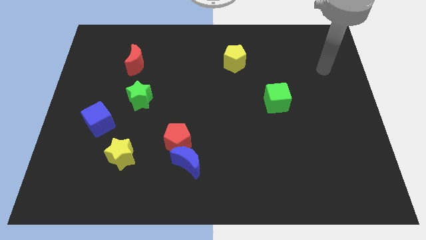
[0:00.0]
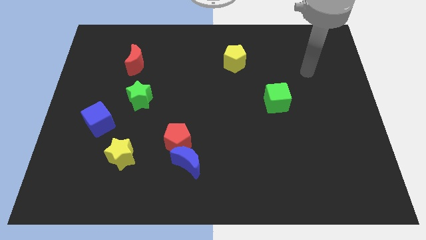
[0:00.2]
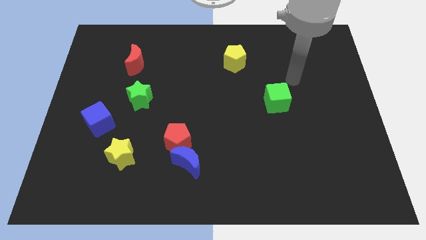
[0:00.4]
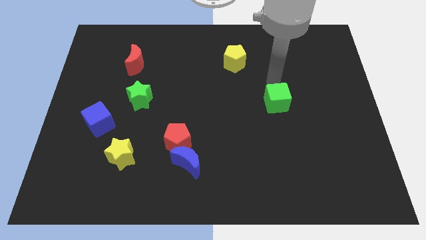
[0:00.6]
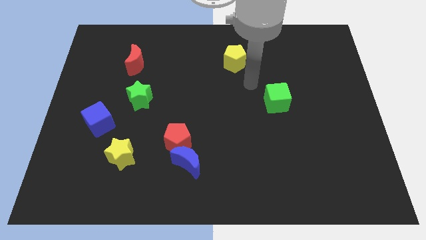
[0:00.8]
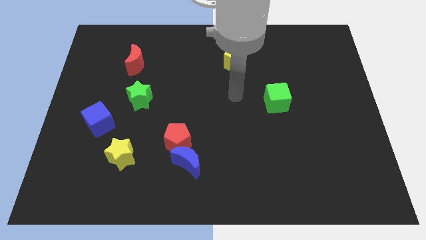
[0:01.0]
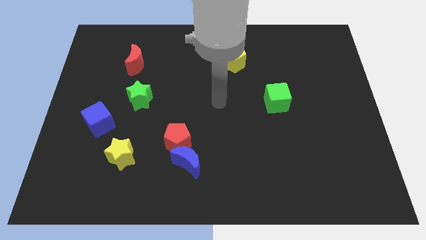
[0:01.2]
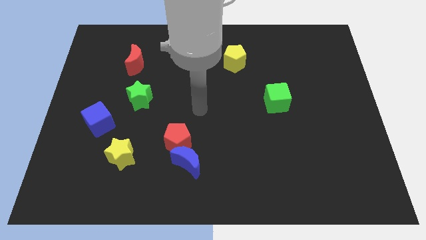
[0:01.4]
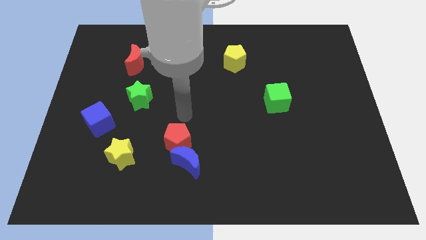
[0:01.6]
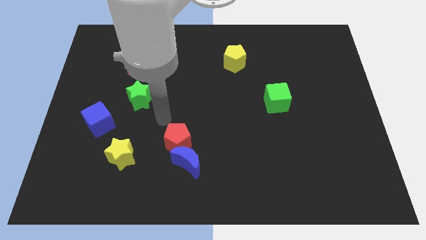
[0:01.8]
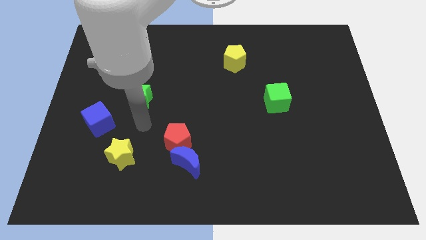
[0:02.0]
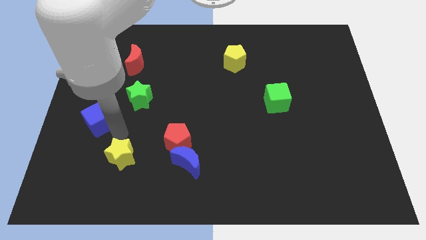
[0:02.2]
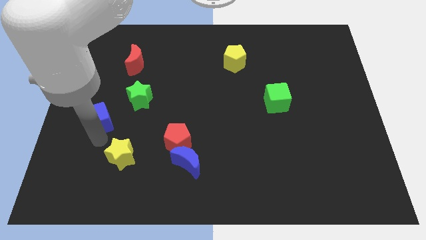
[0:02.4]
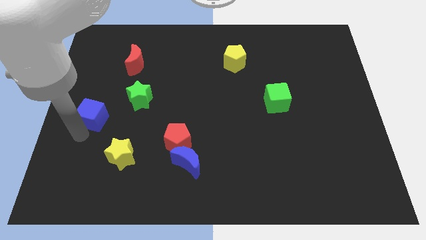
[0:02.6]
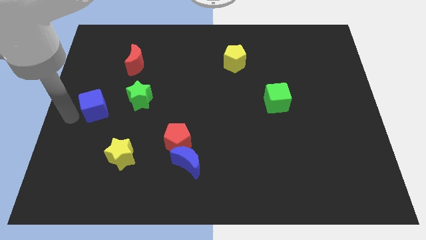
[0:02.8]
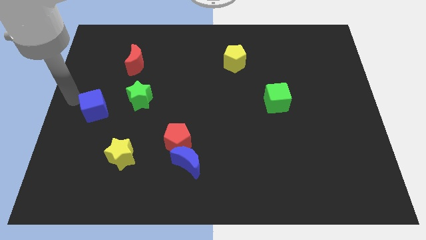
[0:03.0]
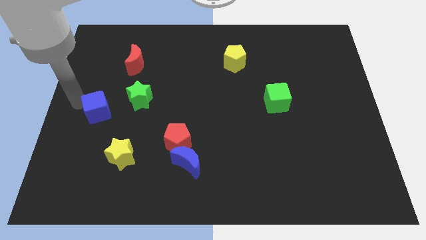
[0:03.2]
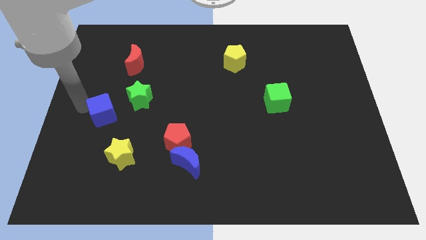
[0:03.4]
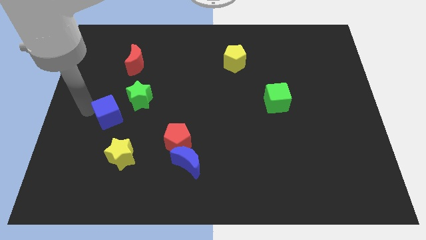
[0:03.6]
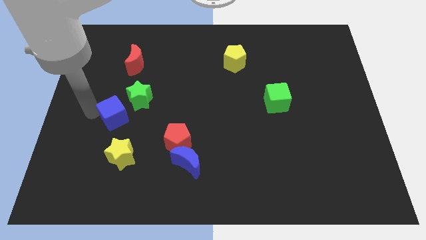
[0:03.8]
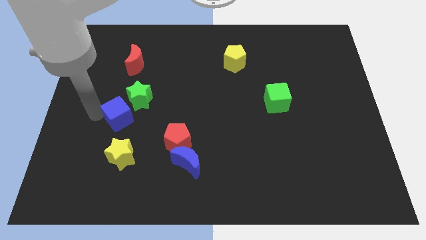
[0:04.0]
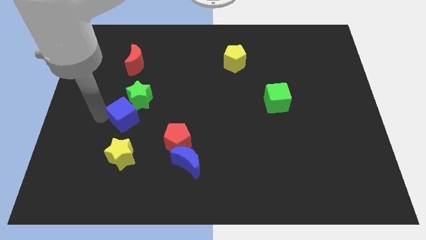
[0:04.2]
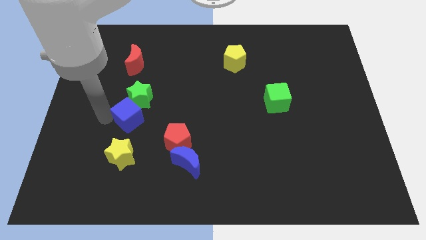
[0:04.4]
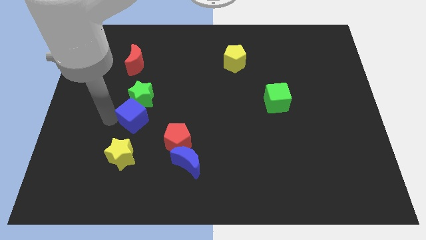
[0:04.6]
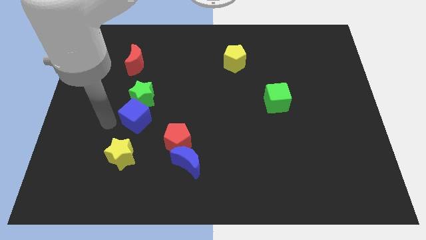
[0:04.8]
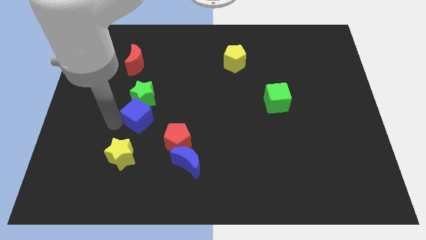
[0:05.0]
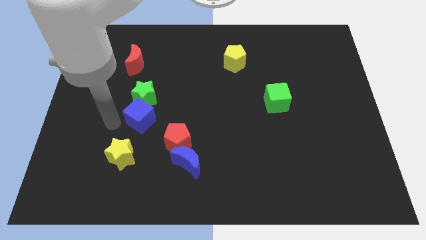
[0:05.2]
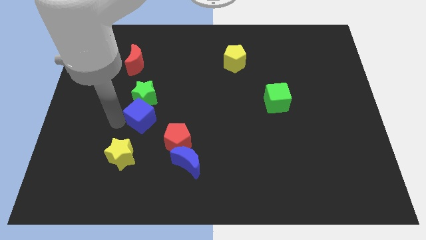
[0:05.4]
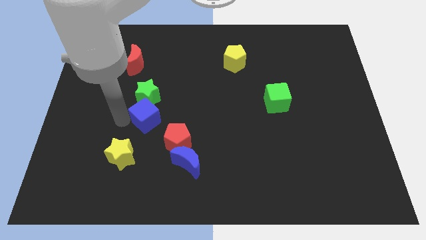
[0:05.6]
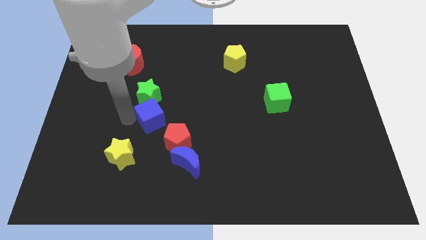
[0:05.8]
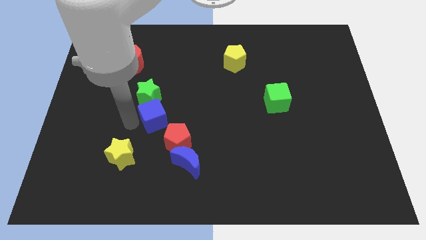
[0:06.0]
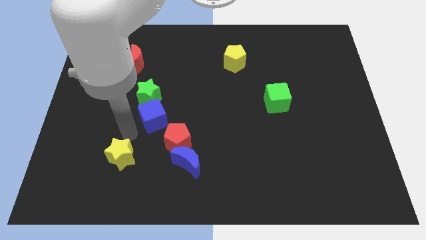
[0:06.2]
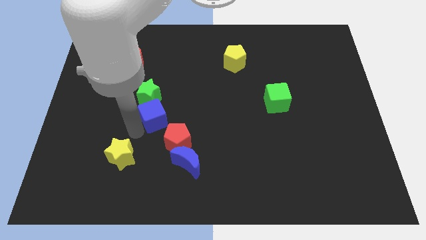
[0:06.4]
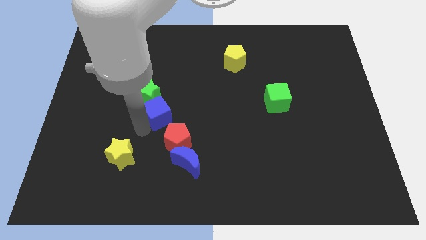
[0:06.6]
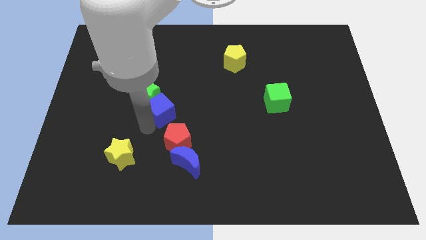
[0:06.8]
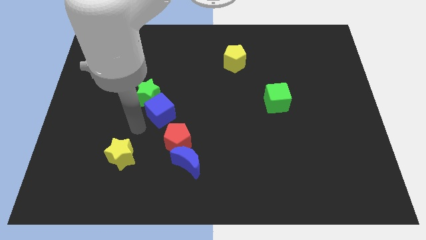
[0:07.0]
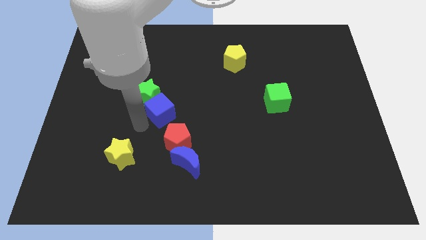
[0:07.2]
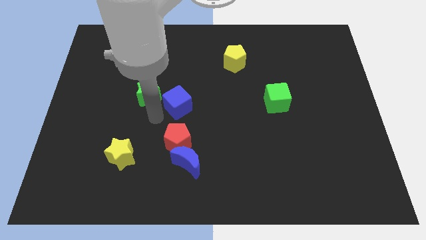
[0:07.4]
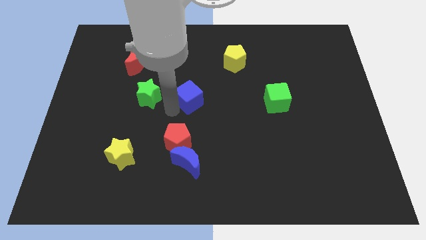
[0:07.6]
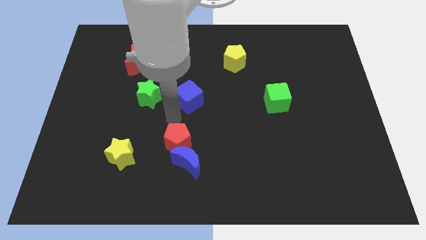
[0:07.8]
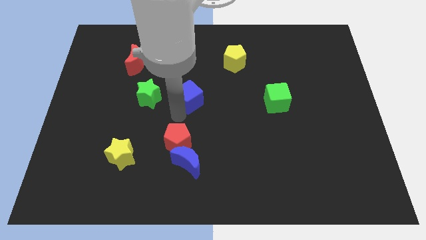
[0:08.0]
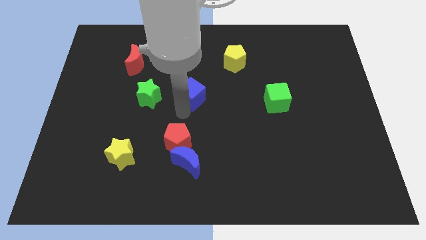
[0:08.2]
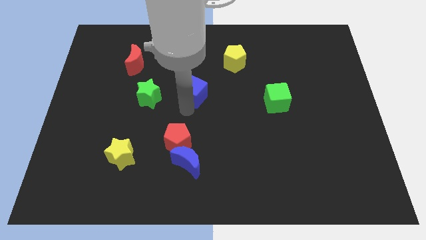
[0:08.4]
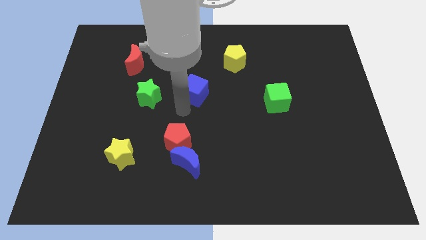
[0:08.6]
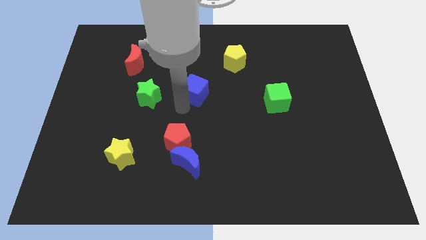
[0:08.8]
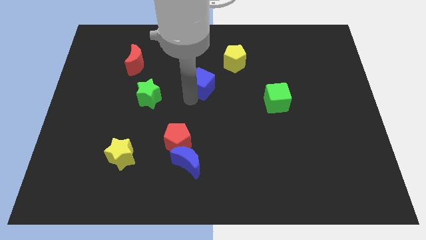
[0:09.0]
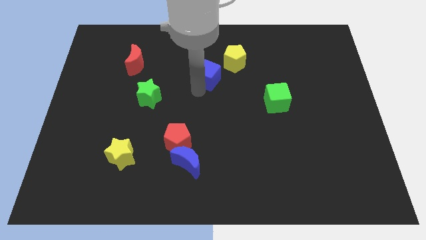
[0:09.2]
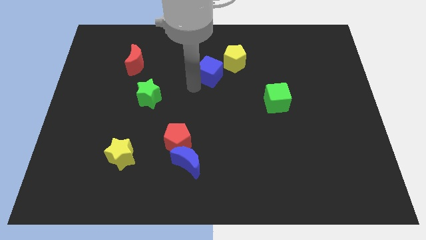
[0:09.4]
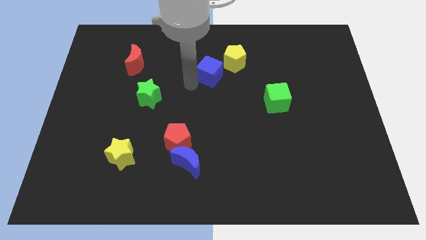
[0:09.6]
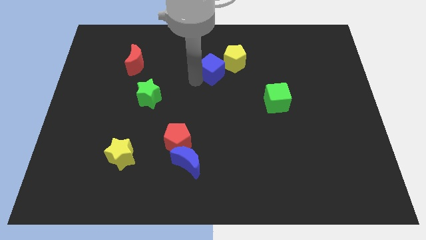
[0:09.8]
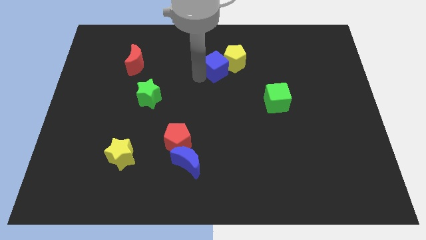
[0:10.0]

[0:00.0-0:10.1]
move the blue cube close to the yellow pentagon

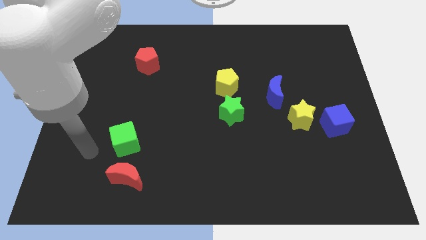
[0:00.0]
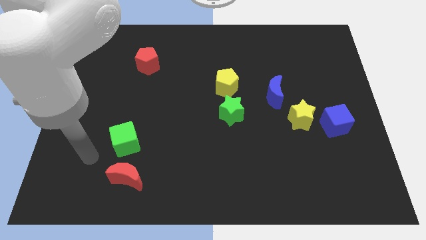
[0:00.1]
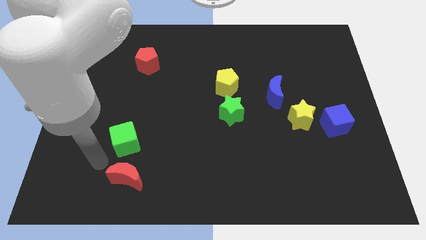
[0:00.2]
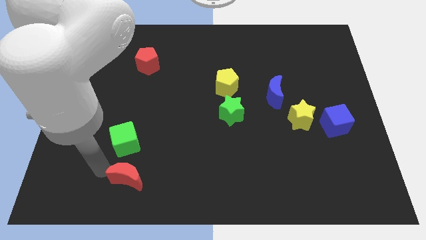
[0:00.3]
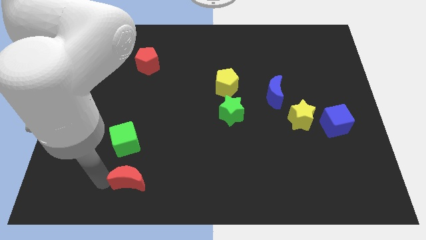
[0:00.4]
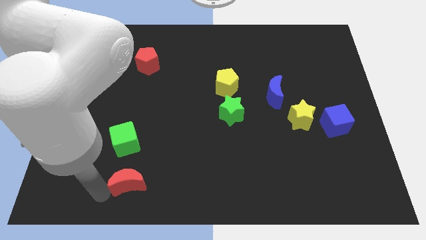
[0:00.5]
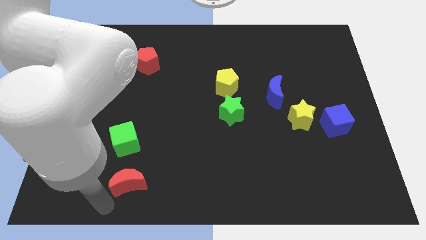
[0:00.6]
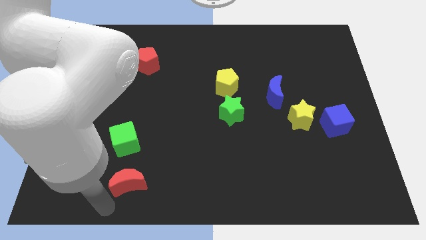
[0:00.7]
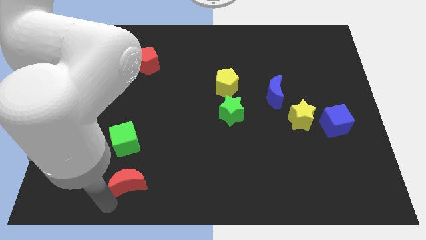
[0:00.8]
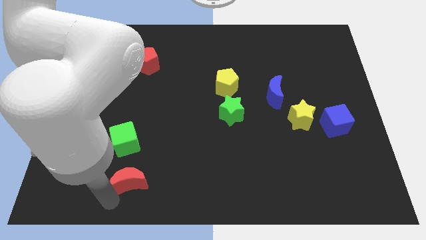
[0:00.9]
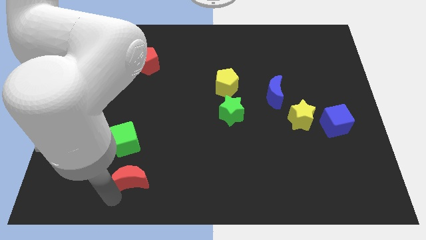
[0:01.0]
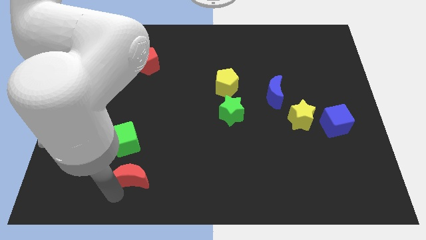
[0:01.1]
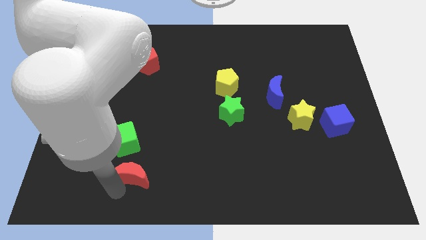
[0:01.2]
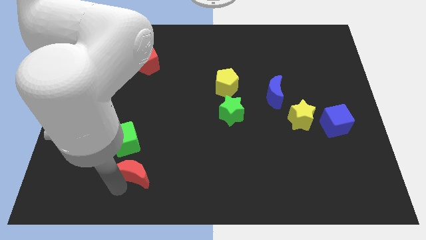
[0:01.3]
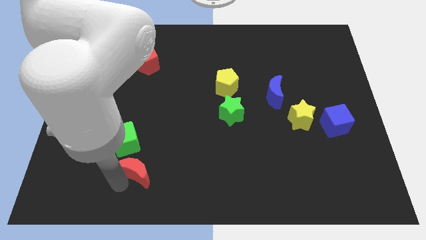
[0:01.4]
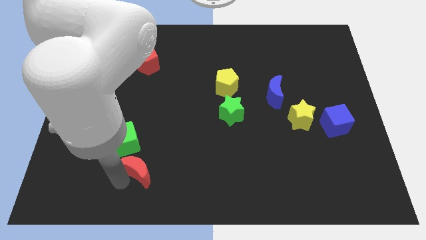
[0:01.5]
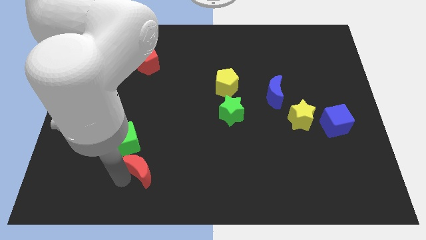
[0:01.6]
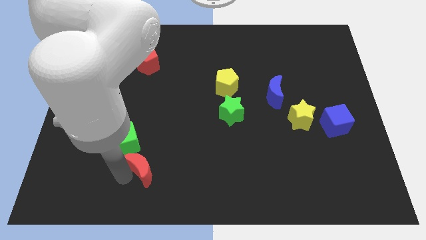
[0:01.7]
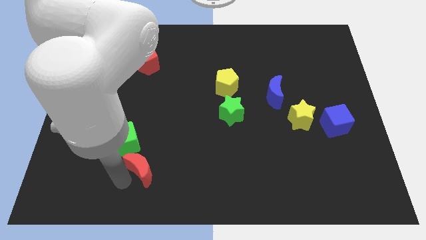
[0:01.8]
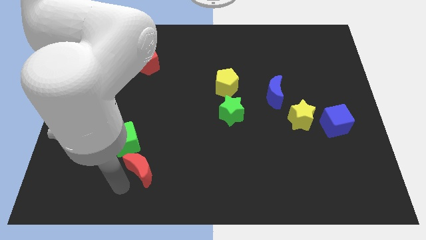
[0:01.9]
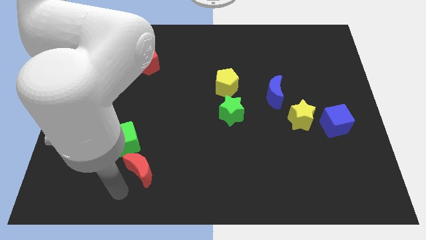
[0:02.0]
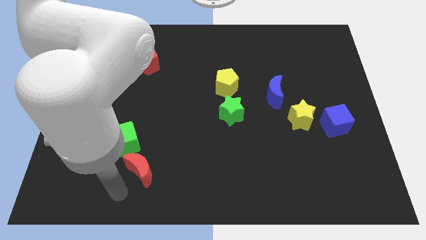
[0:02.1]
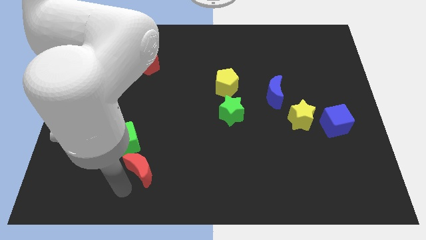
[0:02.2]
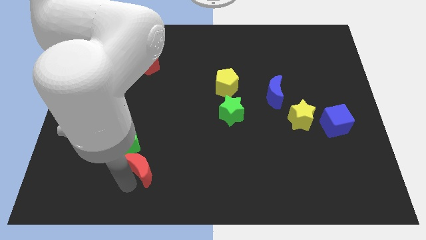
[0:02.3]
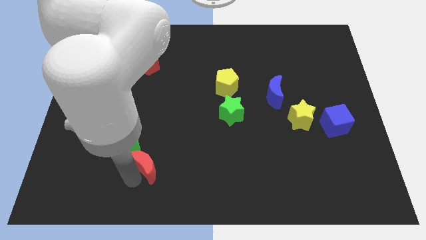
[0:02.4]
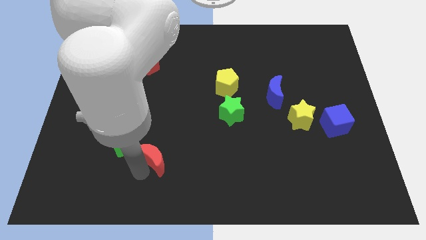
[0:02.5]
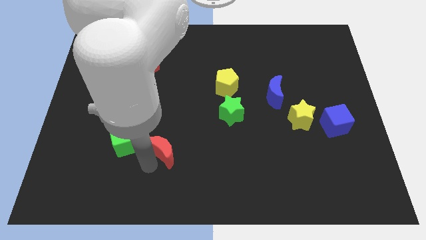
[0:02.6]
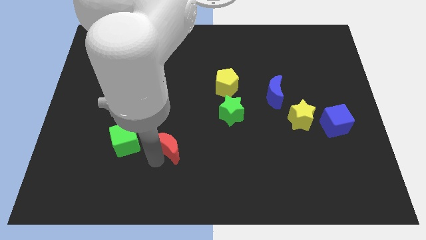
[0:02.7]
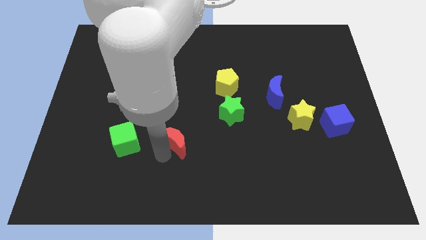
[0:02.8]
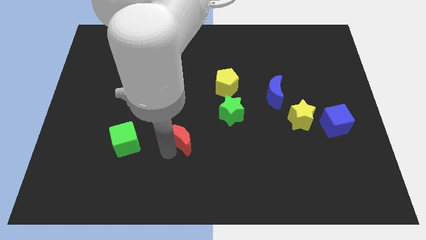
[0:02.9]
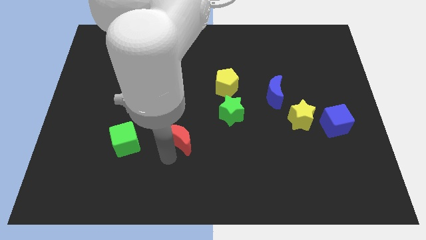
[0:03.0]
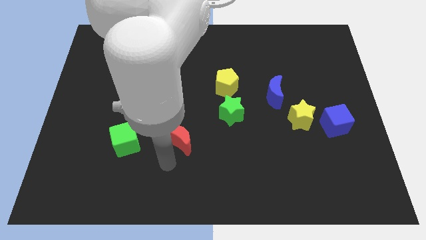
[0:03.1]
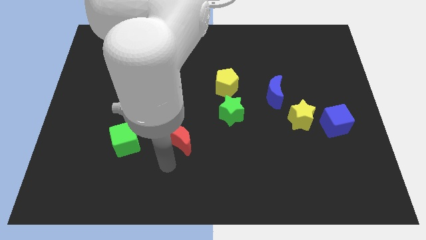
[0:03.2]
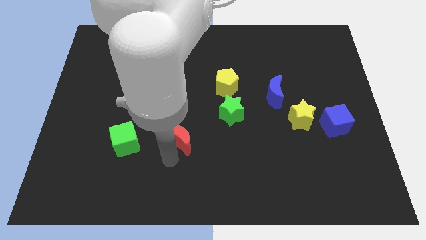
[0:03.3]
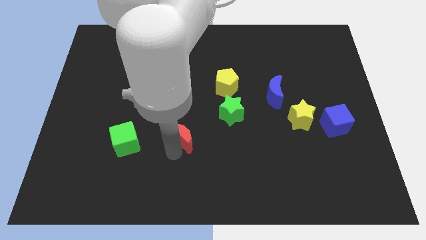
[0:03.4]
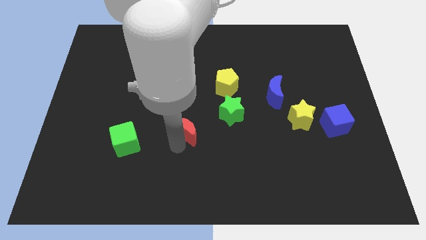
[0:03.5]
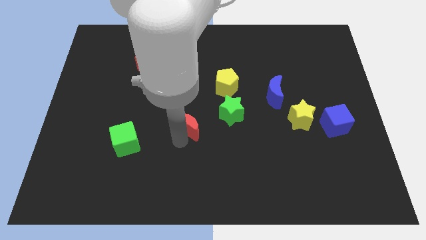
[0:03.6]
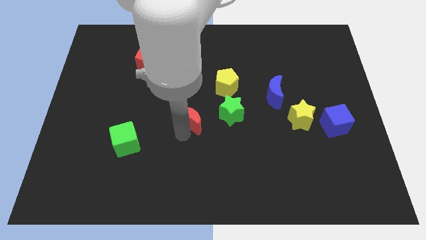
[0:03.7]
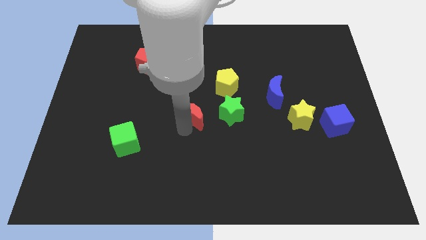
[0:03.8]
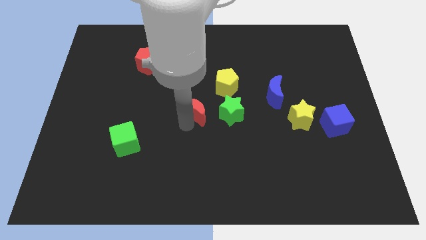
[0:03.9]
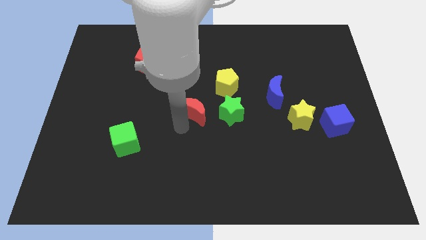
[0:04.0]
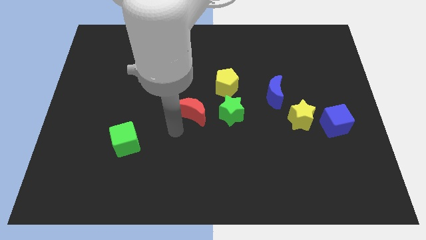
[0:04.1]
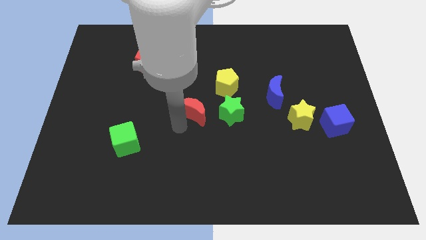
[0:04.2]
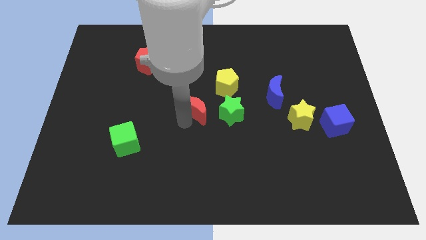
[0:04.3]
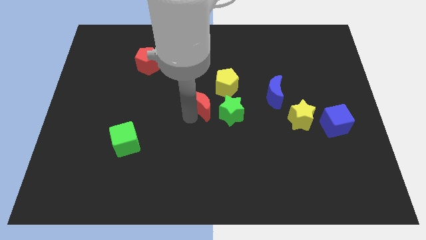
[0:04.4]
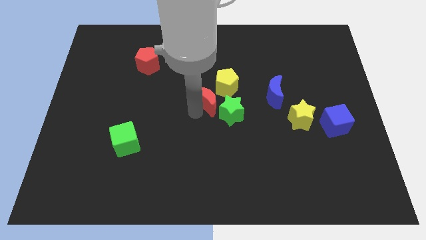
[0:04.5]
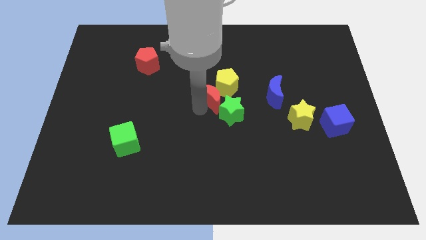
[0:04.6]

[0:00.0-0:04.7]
move the red moon towards the yellow pentagon
